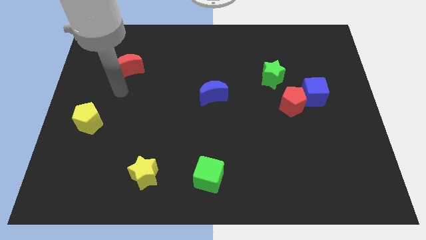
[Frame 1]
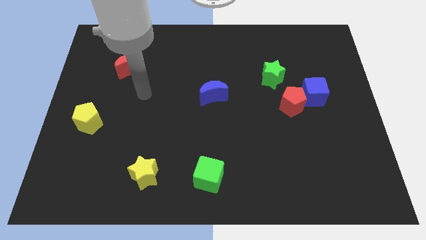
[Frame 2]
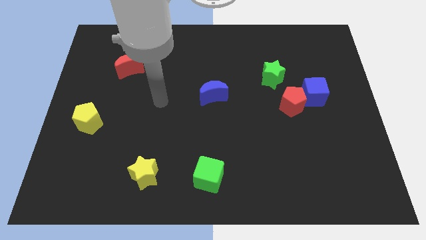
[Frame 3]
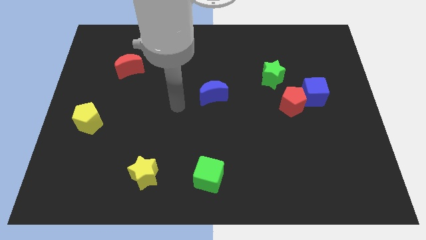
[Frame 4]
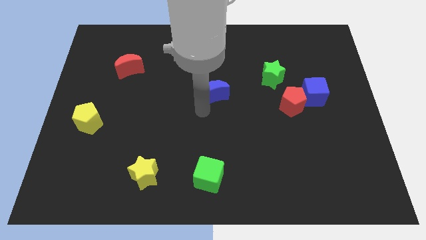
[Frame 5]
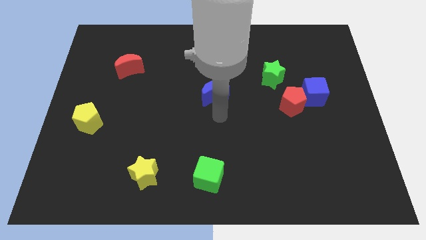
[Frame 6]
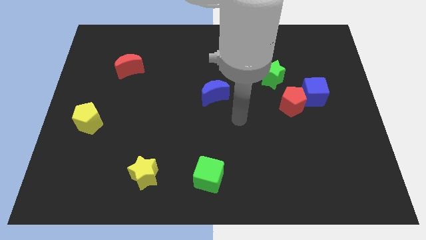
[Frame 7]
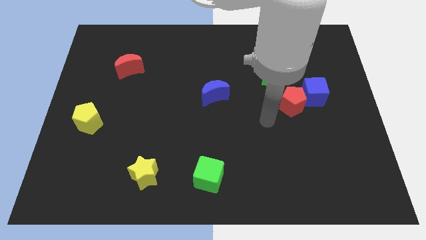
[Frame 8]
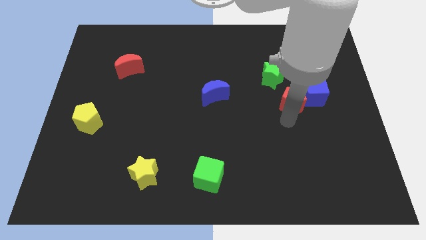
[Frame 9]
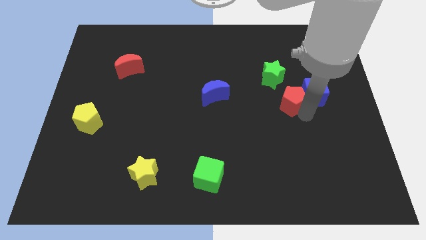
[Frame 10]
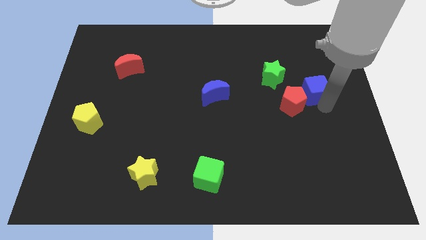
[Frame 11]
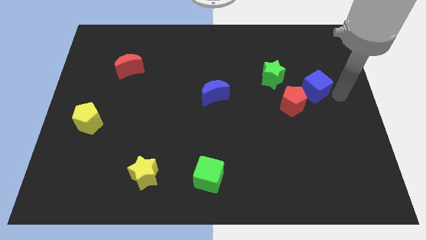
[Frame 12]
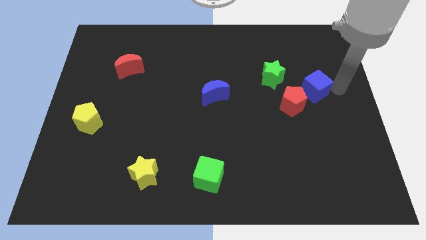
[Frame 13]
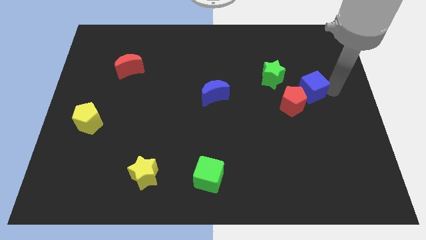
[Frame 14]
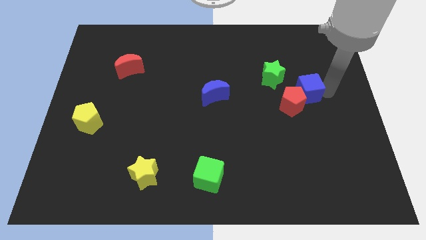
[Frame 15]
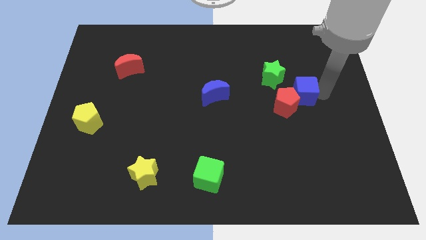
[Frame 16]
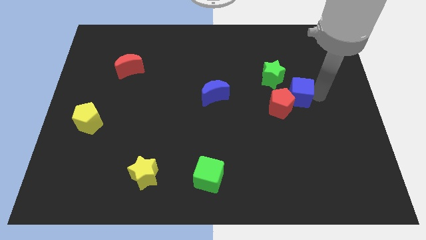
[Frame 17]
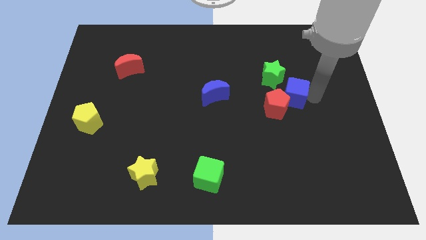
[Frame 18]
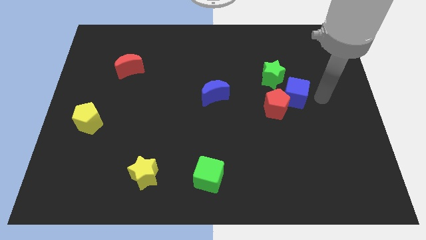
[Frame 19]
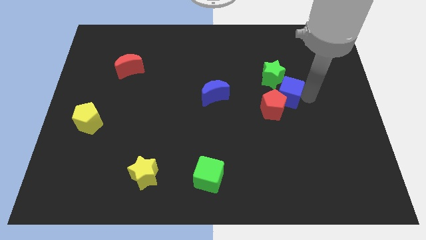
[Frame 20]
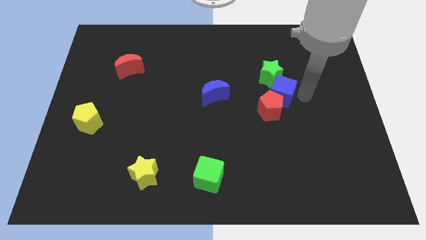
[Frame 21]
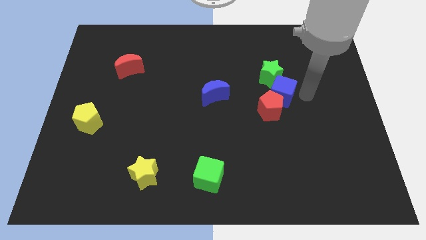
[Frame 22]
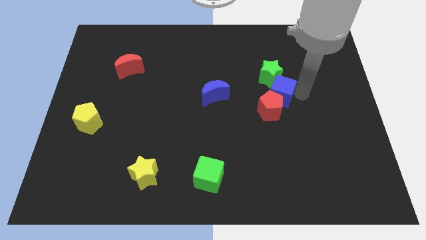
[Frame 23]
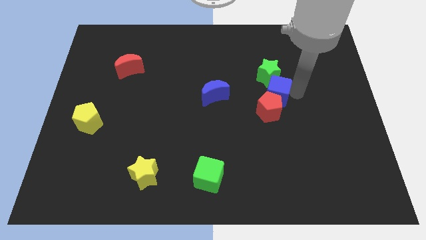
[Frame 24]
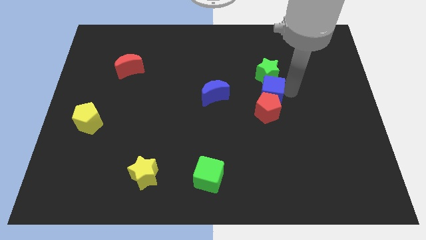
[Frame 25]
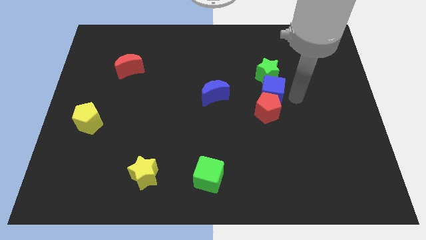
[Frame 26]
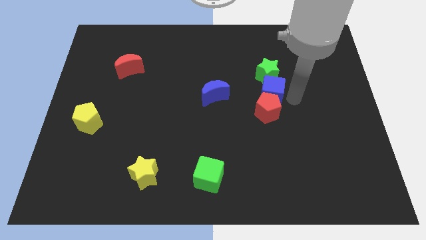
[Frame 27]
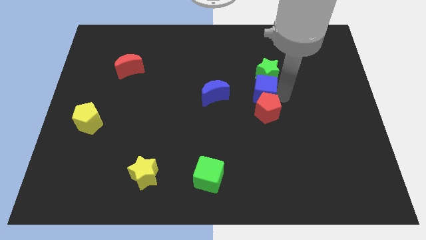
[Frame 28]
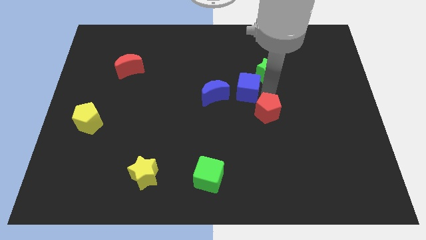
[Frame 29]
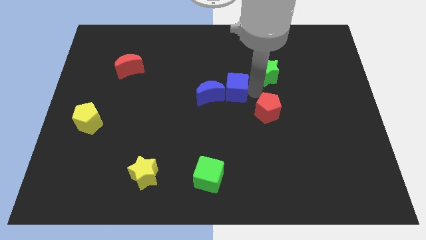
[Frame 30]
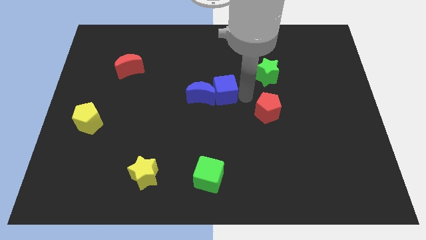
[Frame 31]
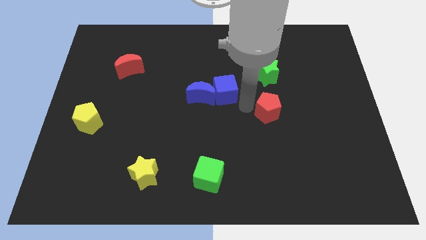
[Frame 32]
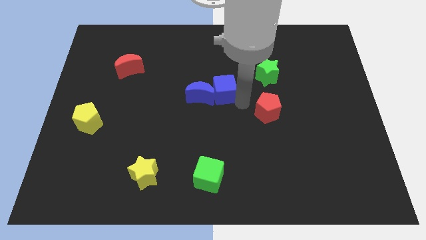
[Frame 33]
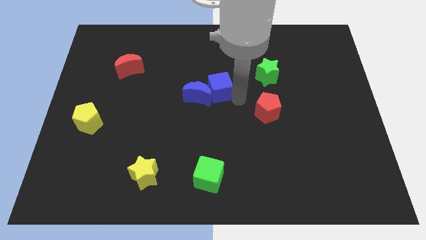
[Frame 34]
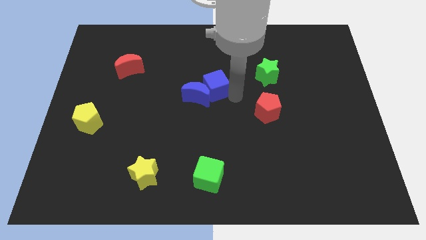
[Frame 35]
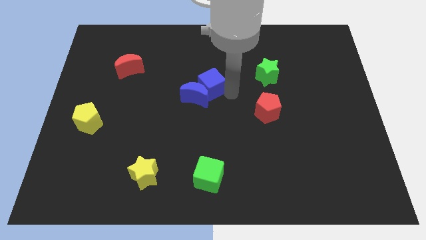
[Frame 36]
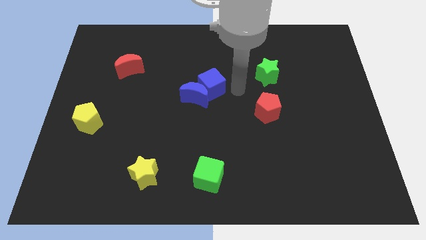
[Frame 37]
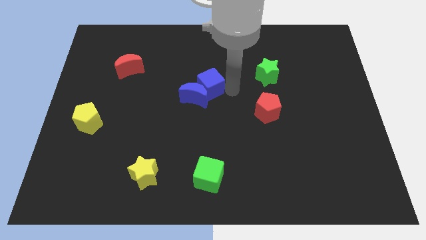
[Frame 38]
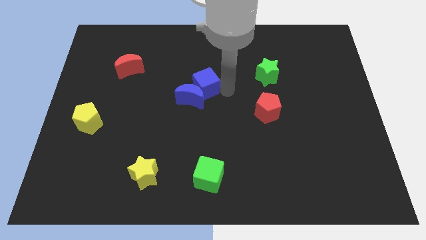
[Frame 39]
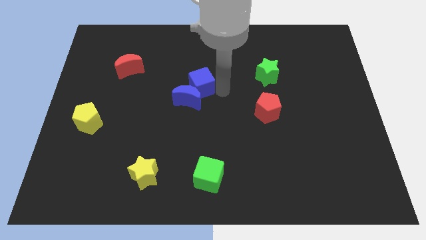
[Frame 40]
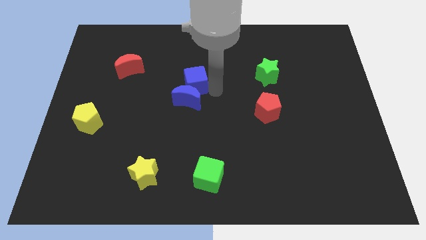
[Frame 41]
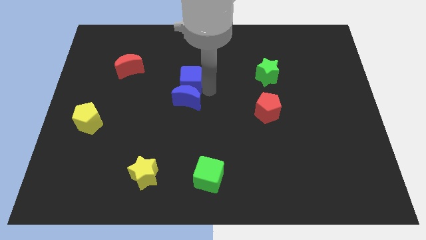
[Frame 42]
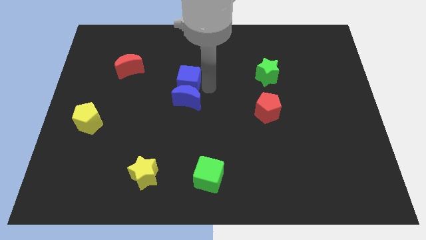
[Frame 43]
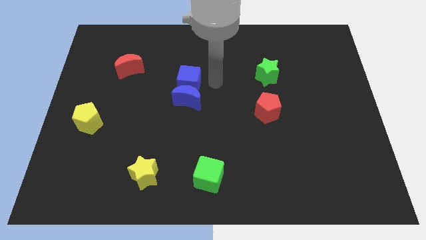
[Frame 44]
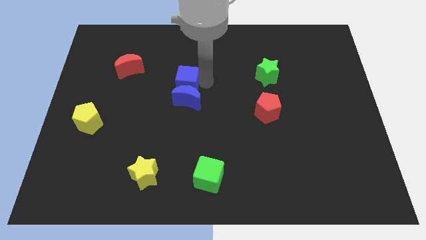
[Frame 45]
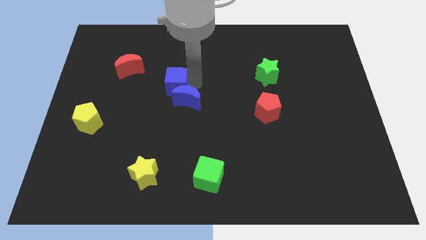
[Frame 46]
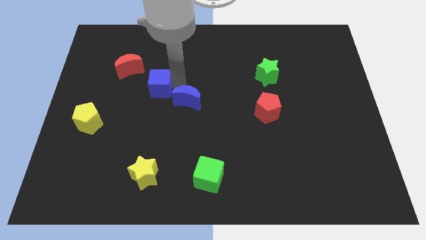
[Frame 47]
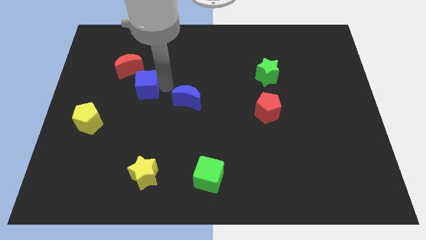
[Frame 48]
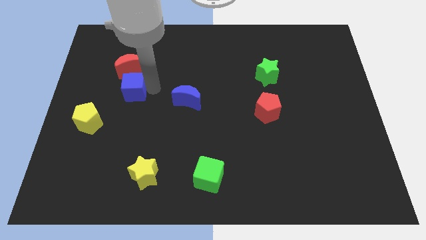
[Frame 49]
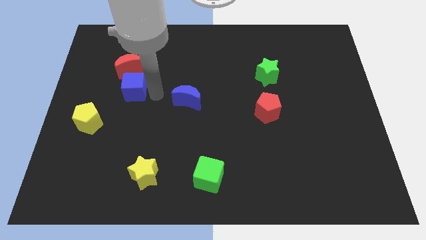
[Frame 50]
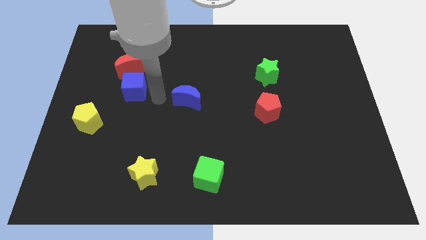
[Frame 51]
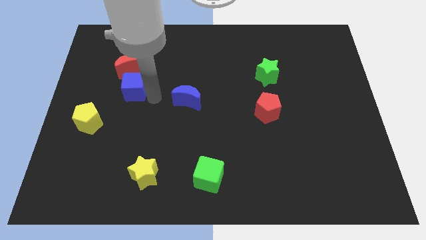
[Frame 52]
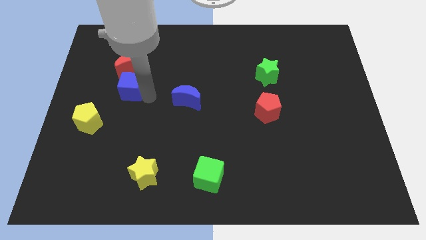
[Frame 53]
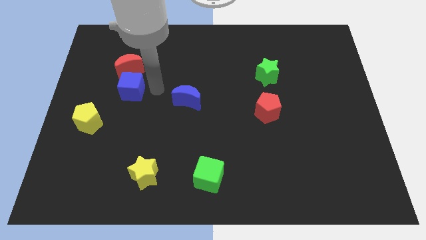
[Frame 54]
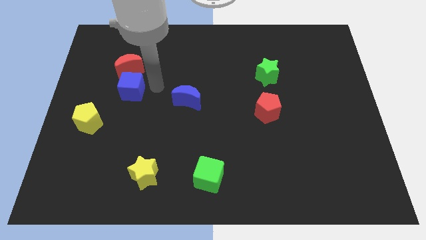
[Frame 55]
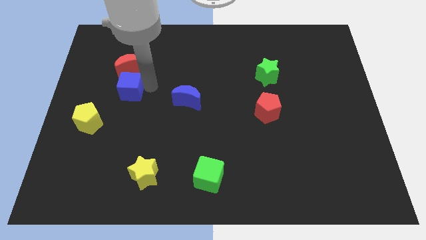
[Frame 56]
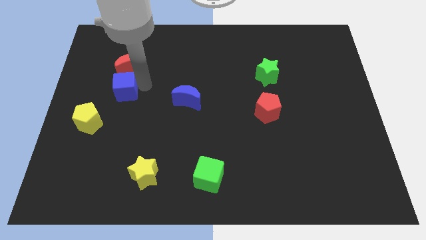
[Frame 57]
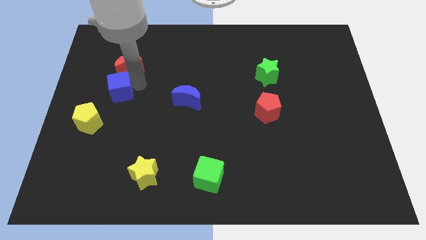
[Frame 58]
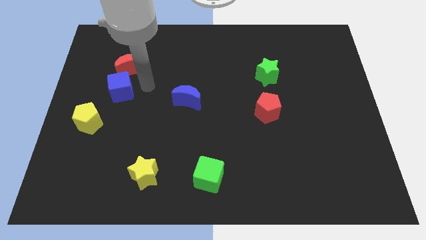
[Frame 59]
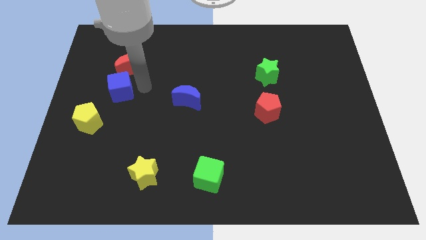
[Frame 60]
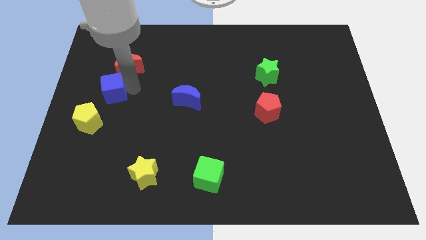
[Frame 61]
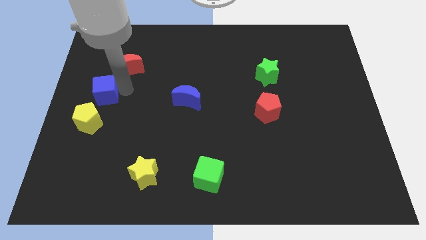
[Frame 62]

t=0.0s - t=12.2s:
put the blue cube to the left side of the board

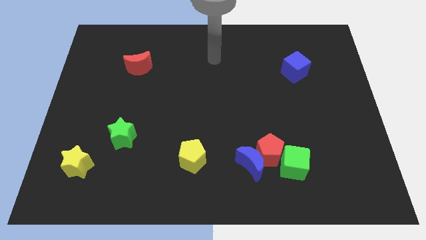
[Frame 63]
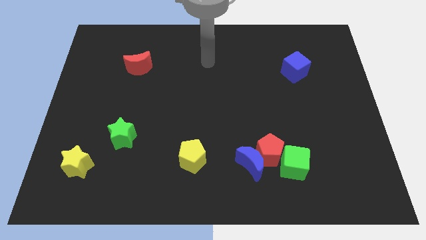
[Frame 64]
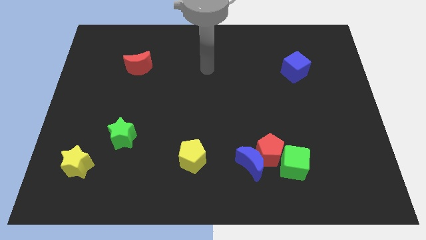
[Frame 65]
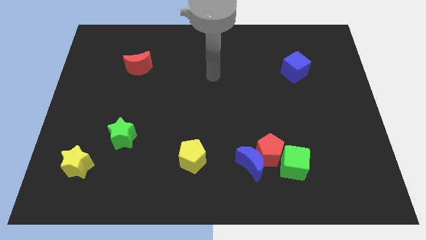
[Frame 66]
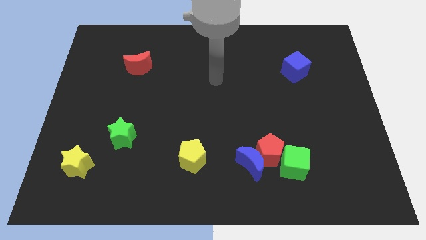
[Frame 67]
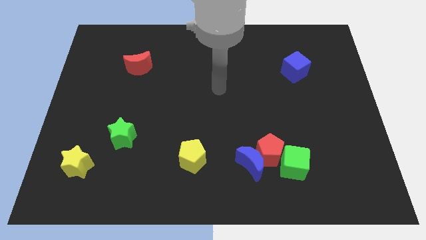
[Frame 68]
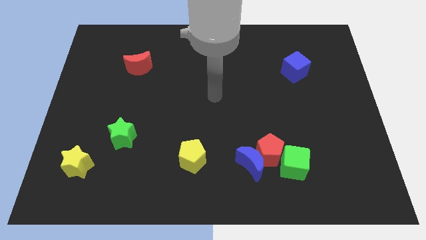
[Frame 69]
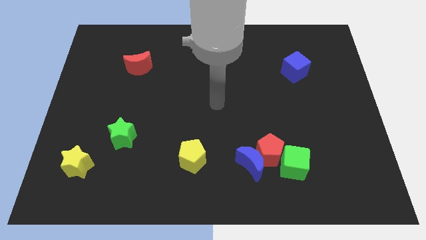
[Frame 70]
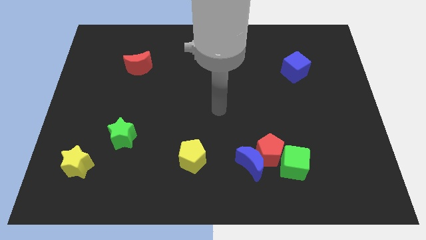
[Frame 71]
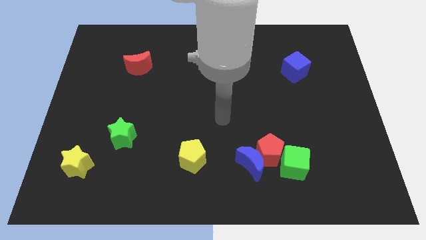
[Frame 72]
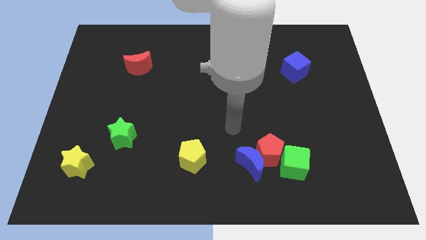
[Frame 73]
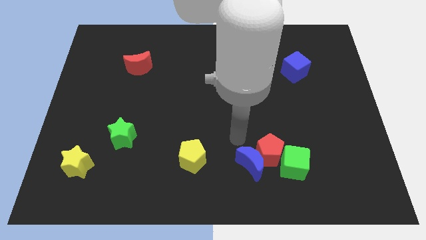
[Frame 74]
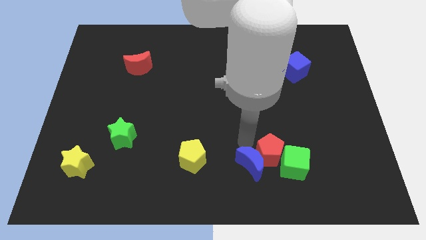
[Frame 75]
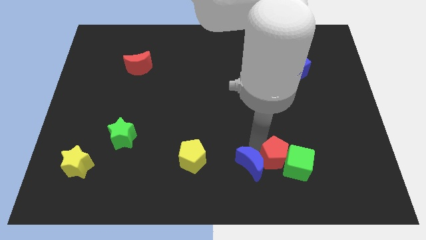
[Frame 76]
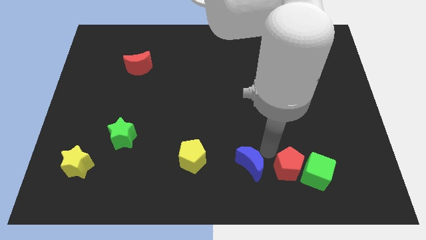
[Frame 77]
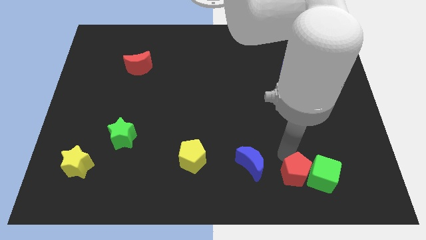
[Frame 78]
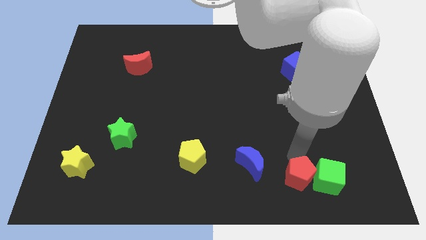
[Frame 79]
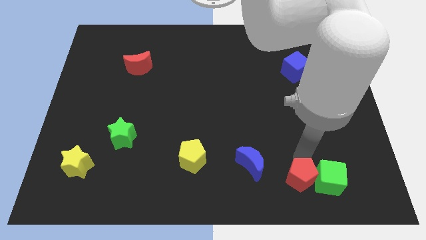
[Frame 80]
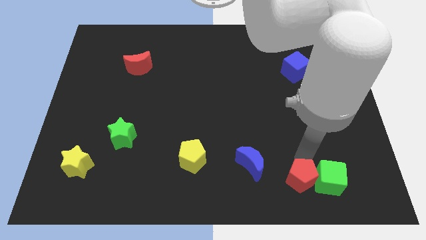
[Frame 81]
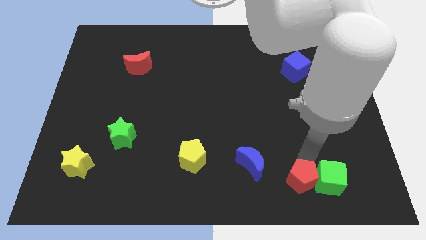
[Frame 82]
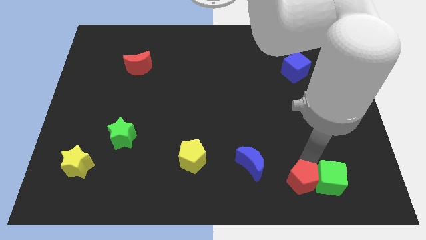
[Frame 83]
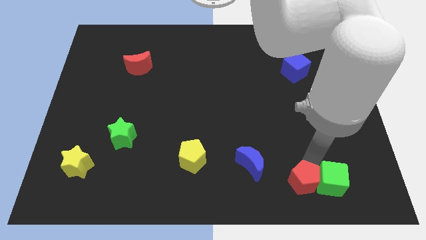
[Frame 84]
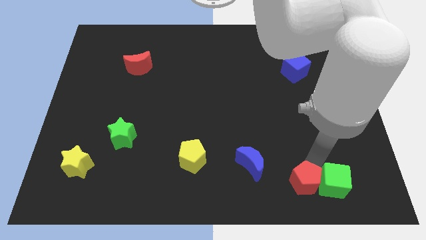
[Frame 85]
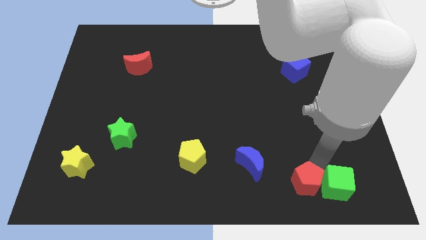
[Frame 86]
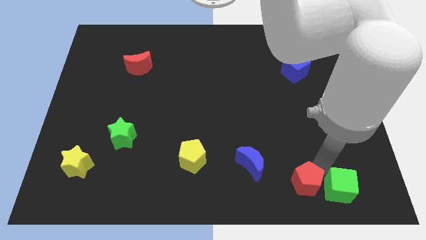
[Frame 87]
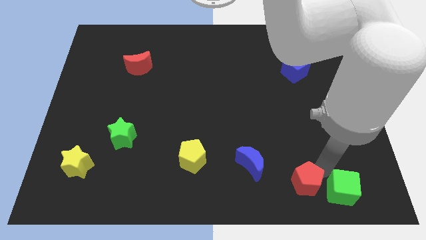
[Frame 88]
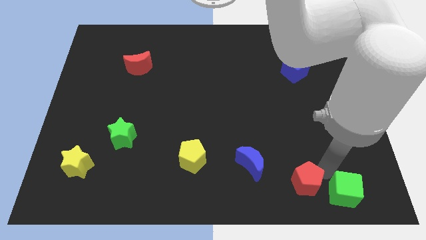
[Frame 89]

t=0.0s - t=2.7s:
move the green cube to the lower right corner
